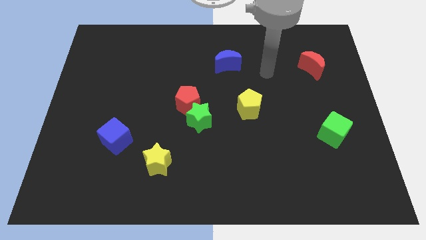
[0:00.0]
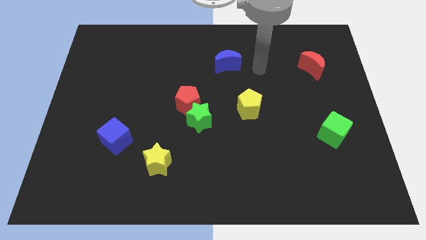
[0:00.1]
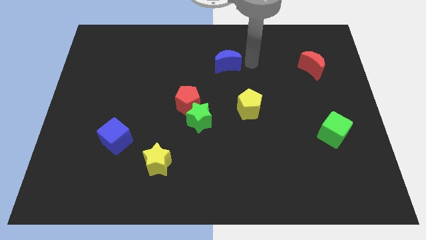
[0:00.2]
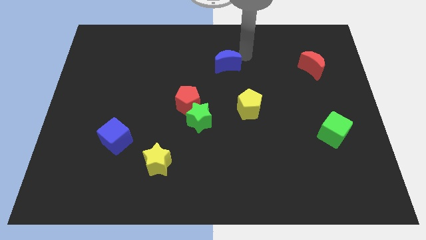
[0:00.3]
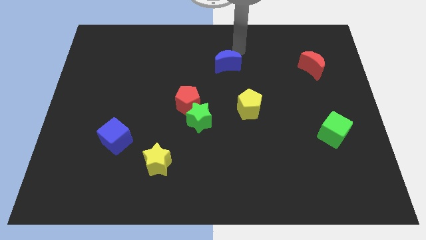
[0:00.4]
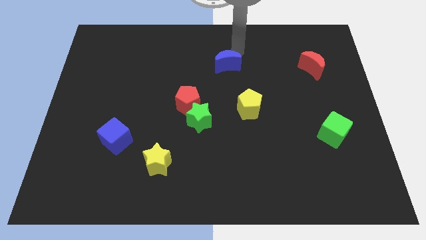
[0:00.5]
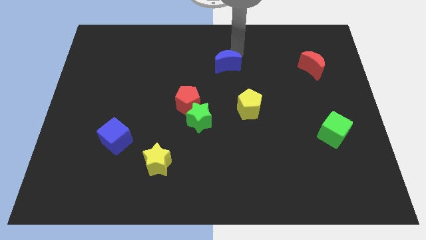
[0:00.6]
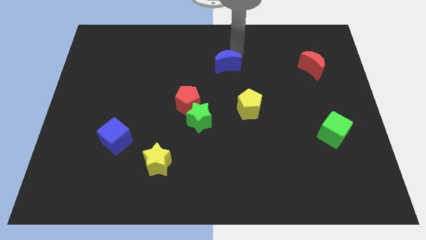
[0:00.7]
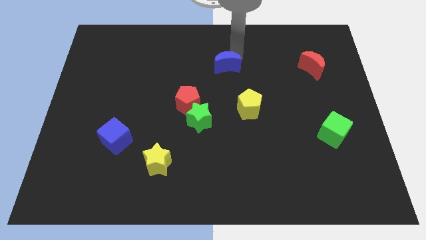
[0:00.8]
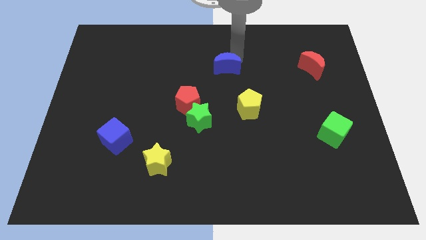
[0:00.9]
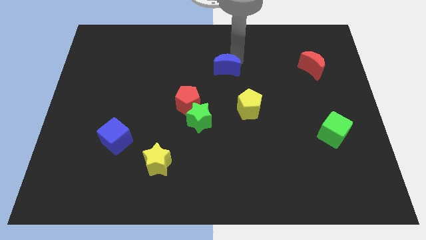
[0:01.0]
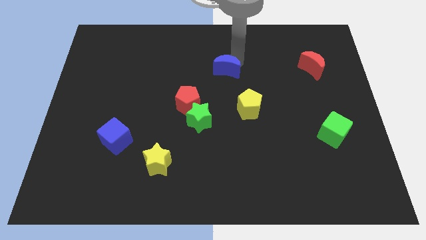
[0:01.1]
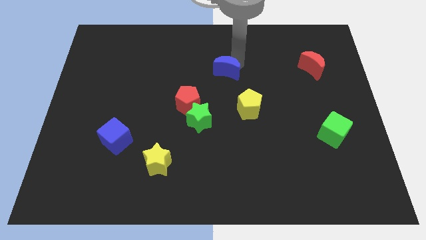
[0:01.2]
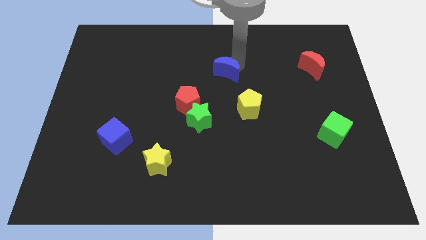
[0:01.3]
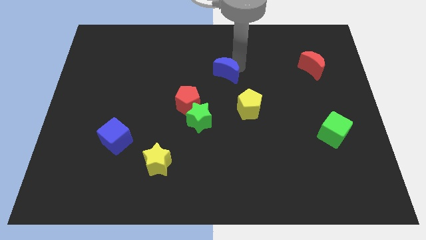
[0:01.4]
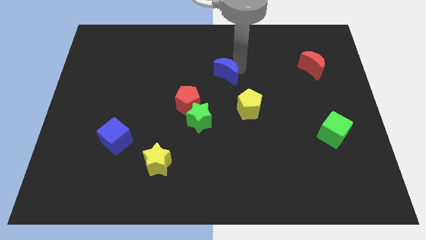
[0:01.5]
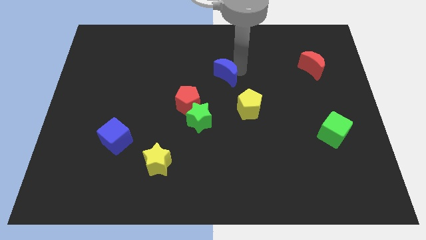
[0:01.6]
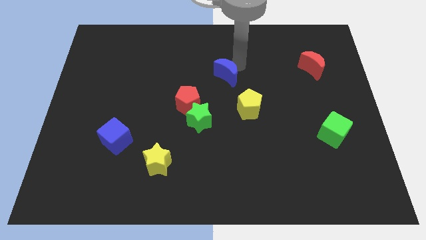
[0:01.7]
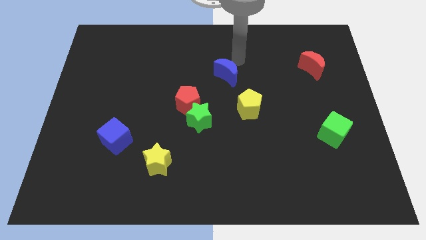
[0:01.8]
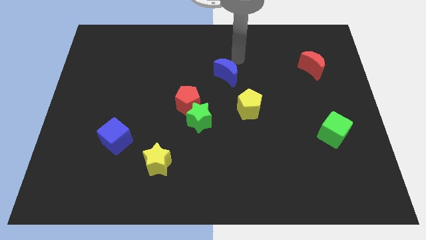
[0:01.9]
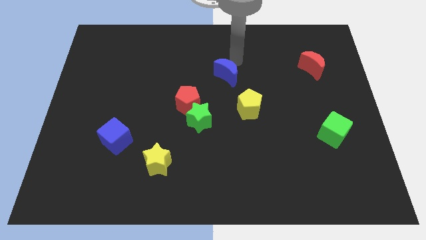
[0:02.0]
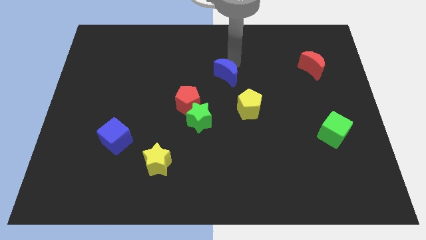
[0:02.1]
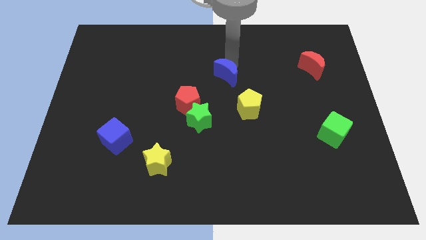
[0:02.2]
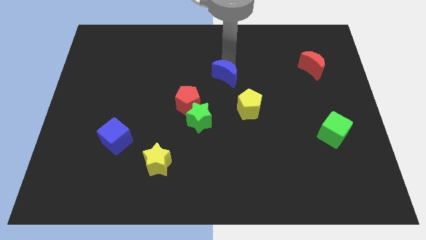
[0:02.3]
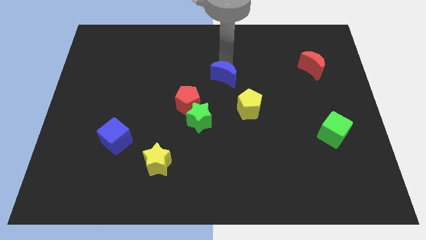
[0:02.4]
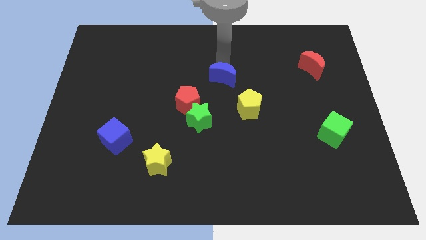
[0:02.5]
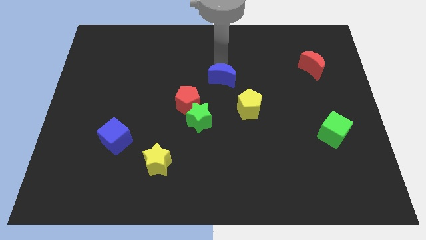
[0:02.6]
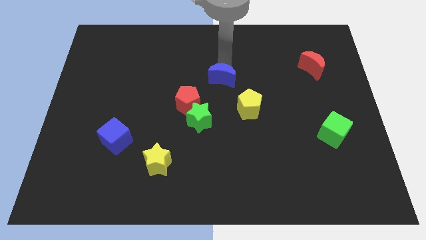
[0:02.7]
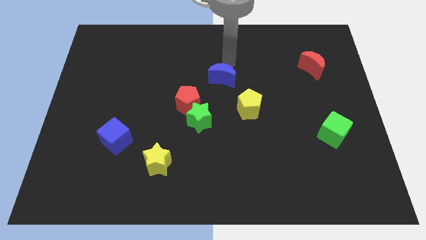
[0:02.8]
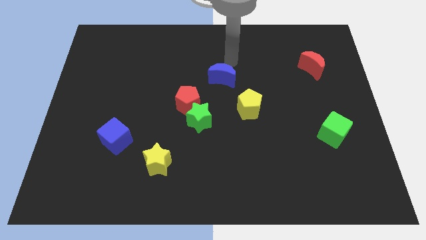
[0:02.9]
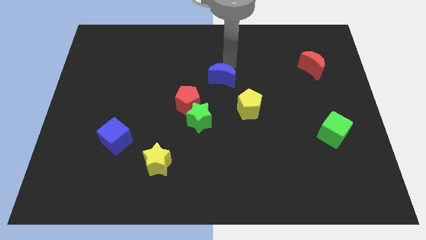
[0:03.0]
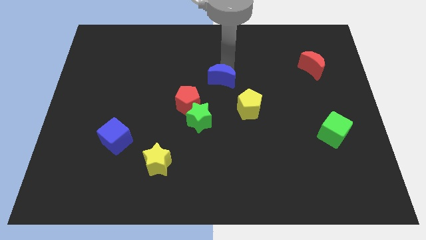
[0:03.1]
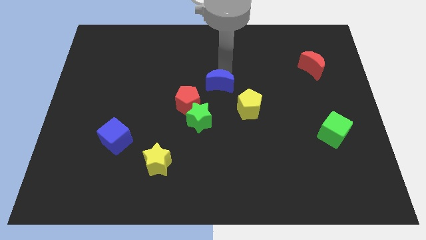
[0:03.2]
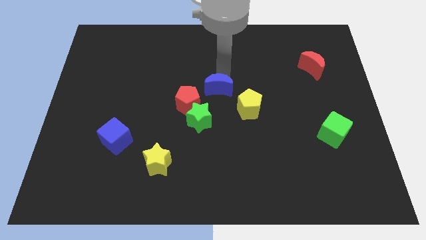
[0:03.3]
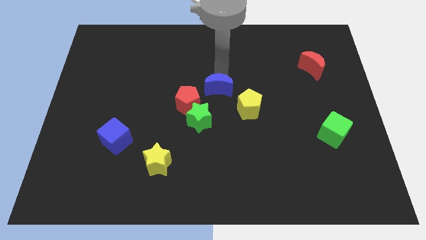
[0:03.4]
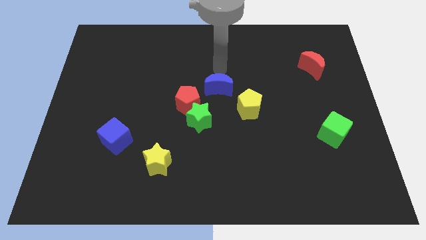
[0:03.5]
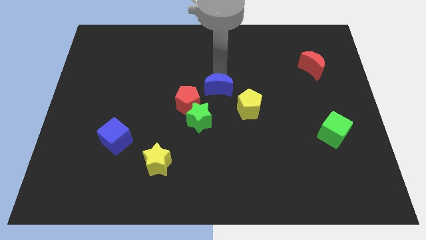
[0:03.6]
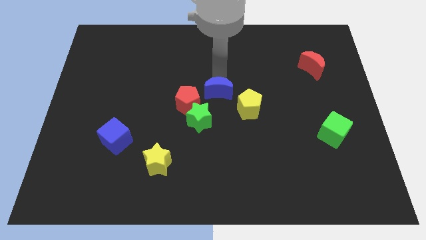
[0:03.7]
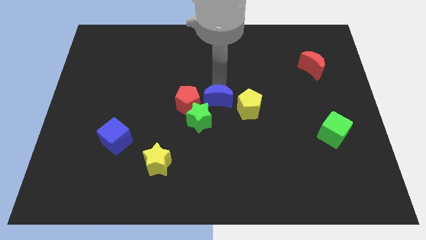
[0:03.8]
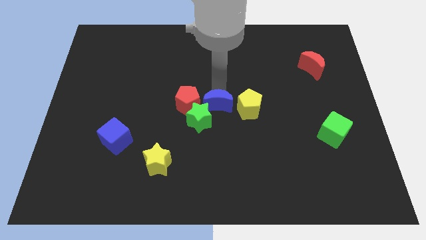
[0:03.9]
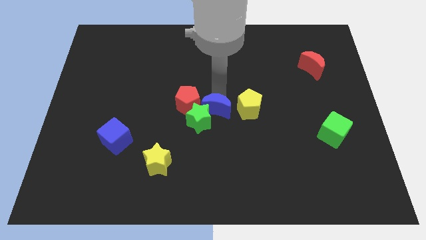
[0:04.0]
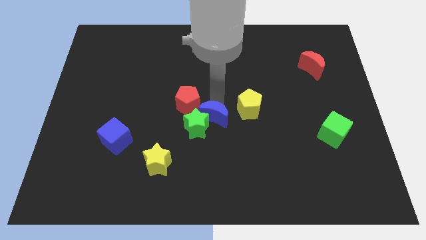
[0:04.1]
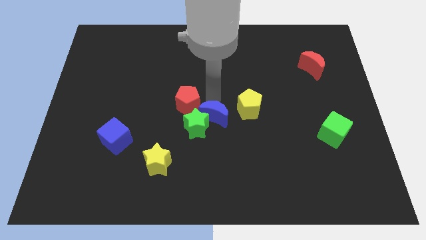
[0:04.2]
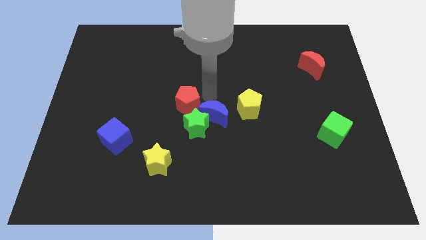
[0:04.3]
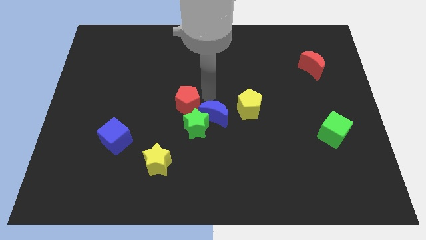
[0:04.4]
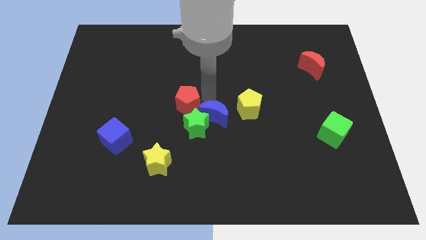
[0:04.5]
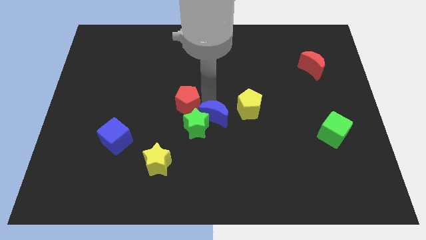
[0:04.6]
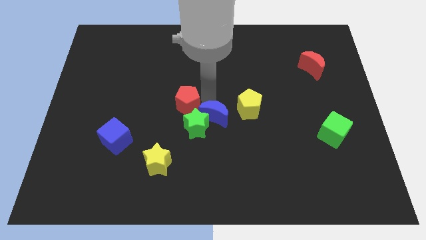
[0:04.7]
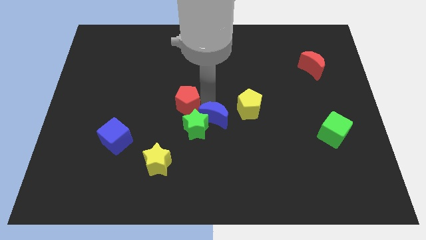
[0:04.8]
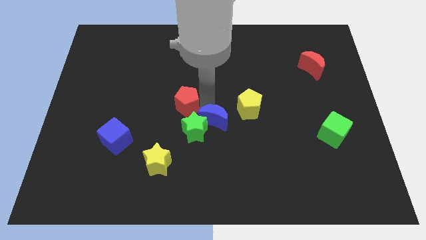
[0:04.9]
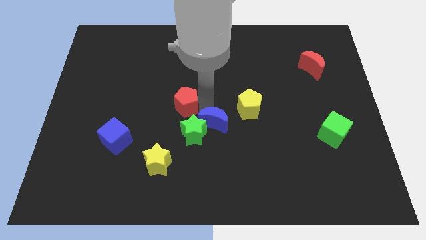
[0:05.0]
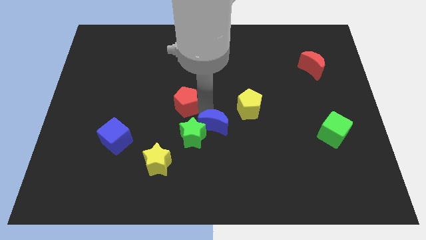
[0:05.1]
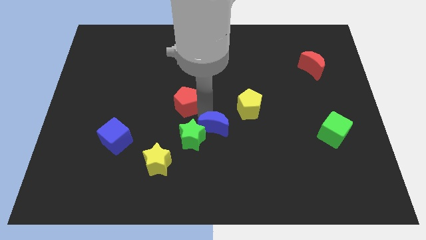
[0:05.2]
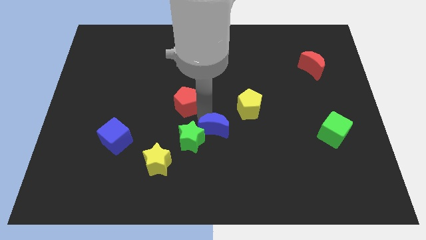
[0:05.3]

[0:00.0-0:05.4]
slide the blue moon downwards

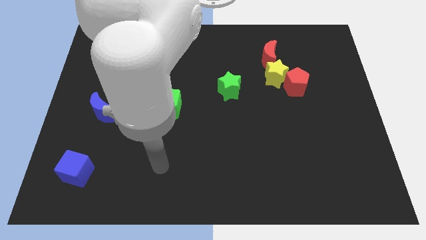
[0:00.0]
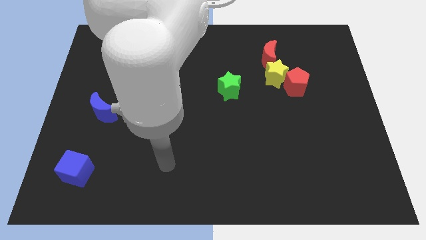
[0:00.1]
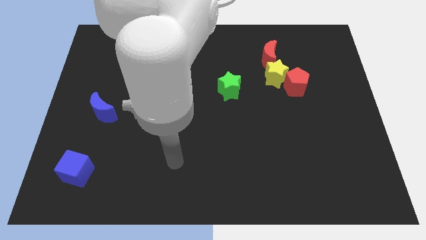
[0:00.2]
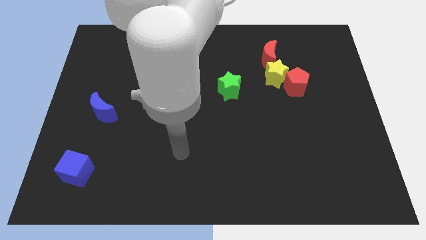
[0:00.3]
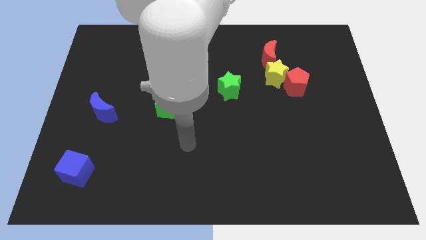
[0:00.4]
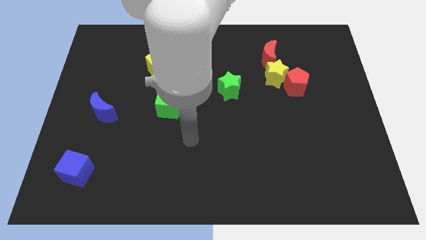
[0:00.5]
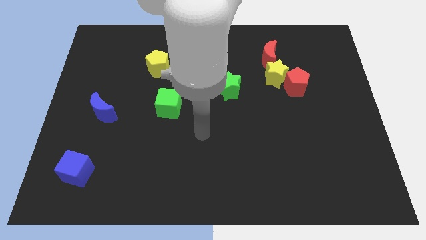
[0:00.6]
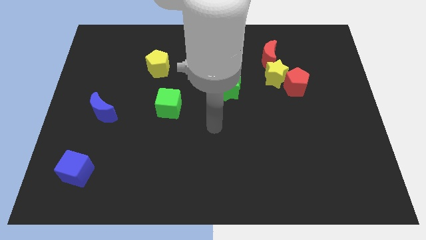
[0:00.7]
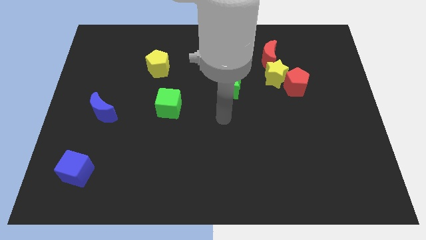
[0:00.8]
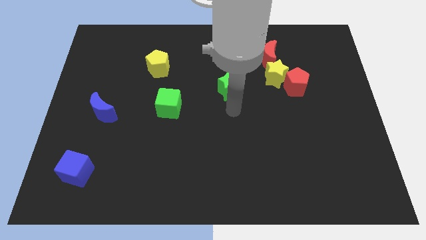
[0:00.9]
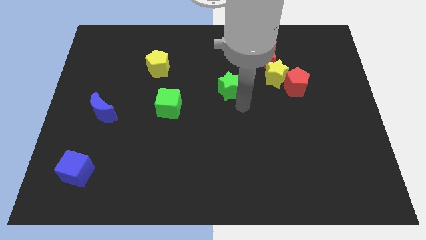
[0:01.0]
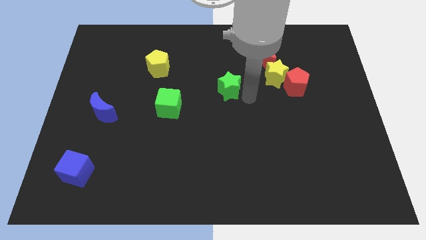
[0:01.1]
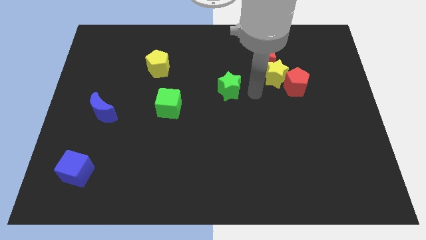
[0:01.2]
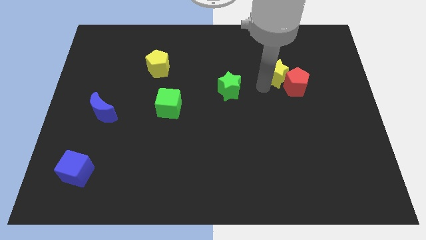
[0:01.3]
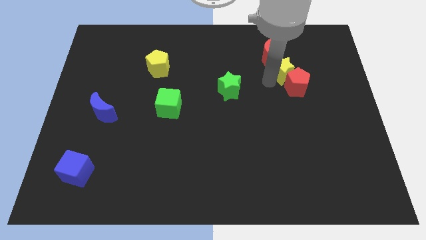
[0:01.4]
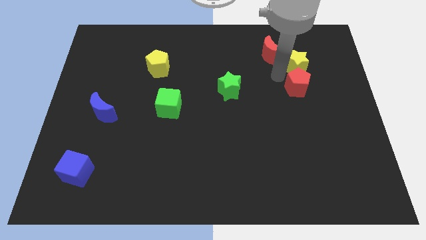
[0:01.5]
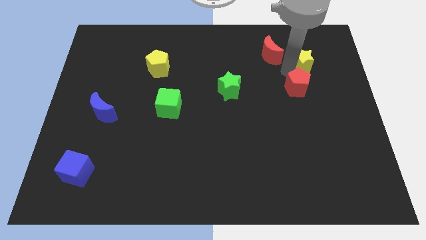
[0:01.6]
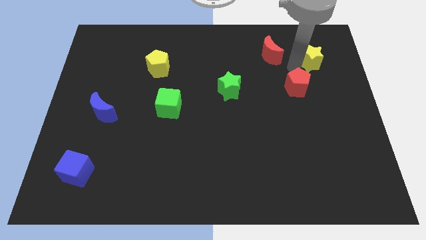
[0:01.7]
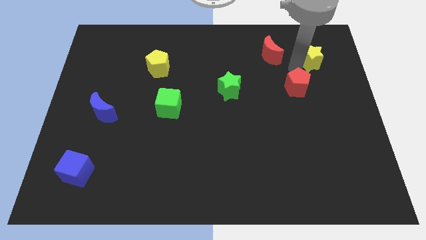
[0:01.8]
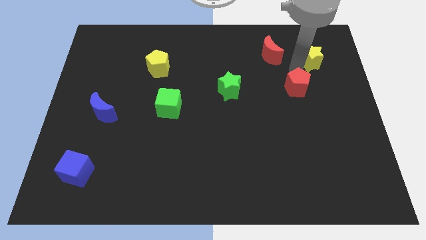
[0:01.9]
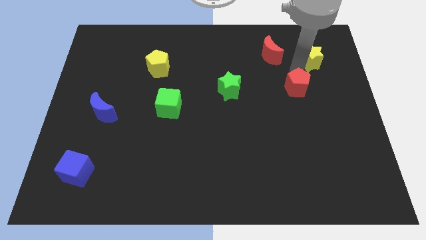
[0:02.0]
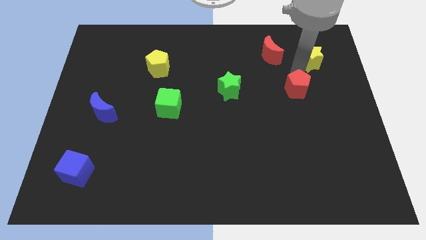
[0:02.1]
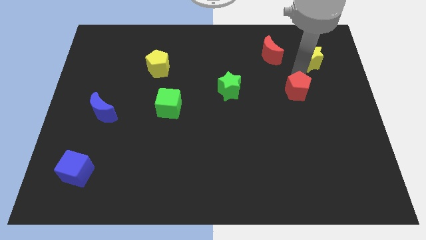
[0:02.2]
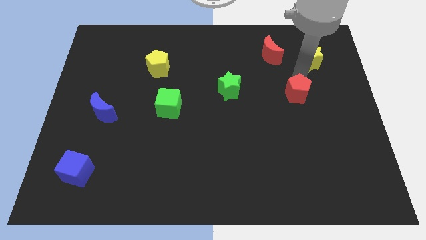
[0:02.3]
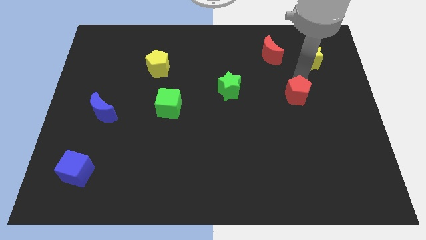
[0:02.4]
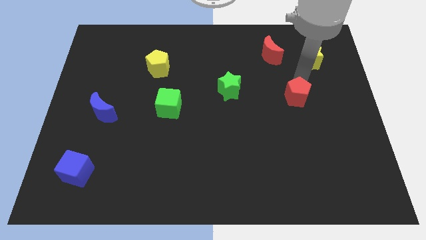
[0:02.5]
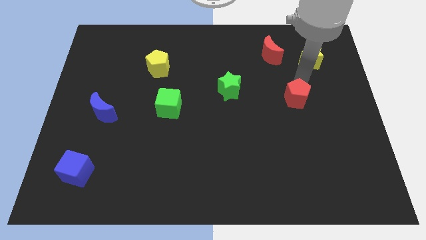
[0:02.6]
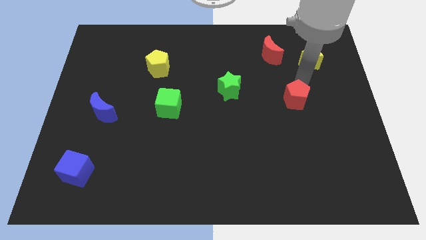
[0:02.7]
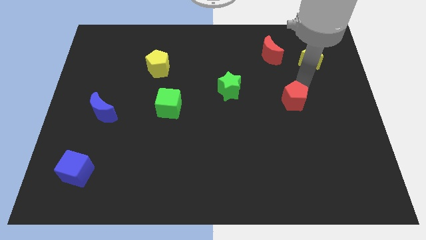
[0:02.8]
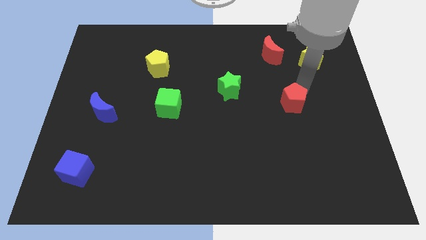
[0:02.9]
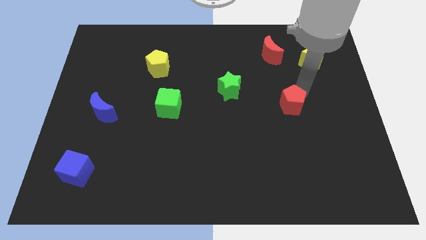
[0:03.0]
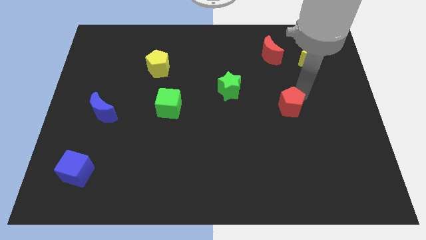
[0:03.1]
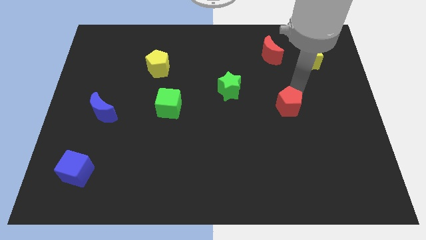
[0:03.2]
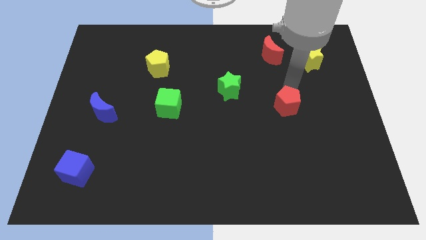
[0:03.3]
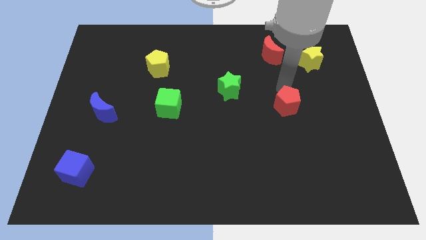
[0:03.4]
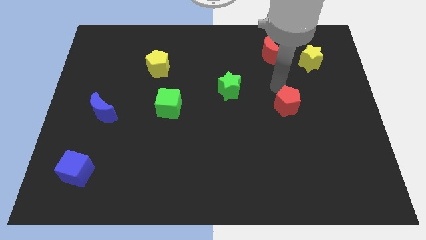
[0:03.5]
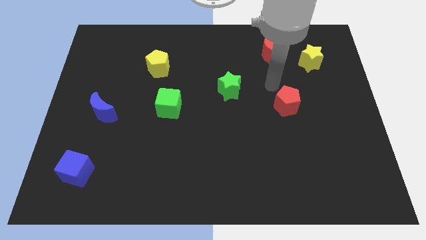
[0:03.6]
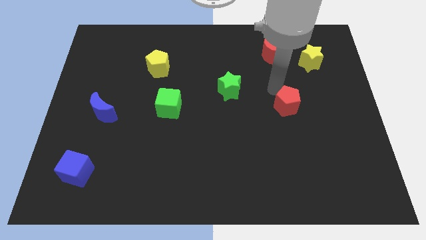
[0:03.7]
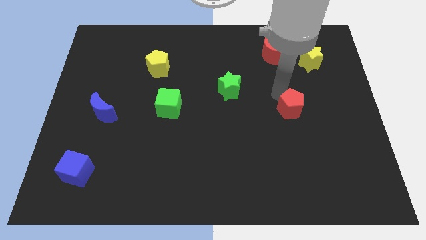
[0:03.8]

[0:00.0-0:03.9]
move the red pentagon downwards a little
